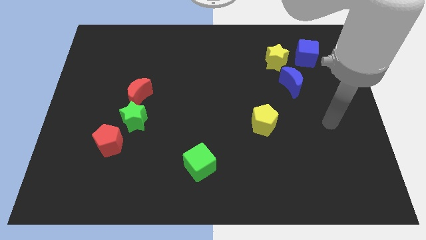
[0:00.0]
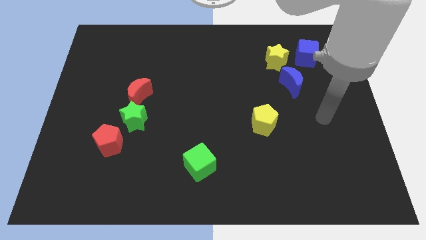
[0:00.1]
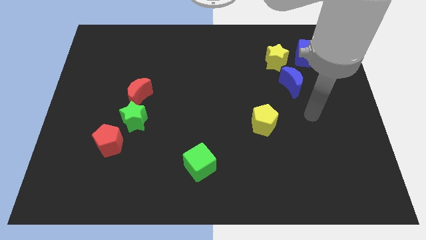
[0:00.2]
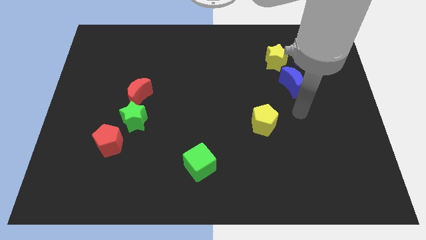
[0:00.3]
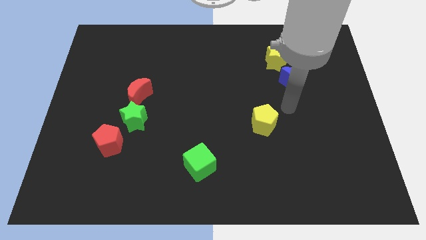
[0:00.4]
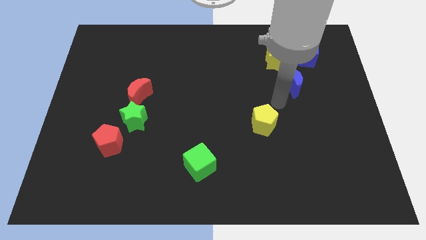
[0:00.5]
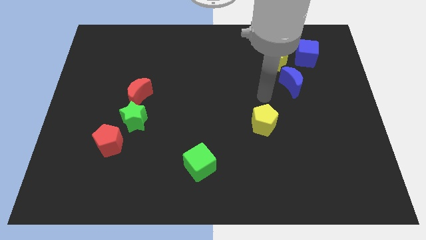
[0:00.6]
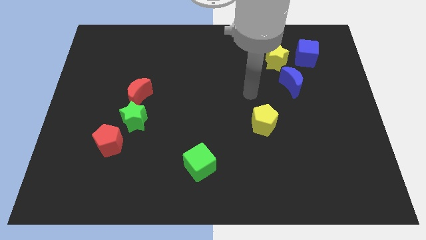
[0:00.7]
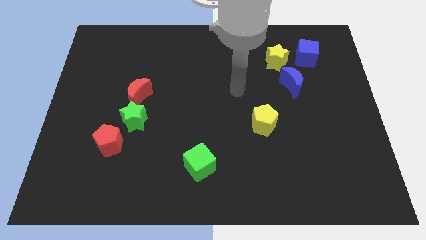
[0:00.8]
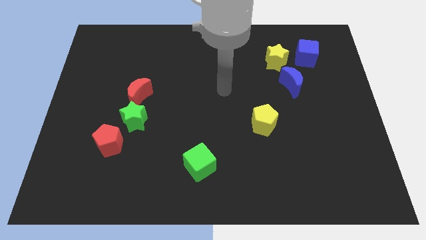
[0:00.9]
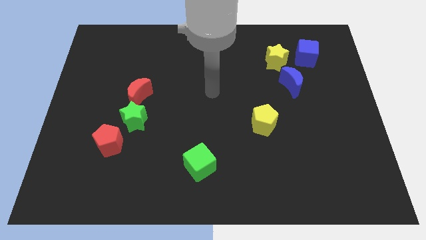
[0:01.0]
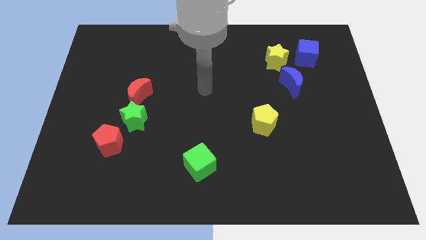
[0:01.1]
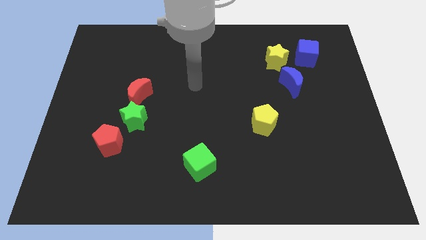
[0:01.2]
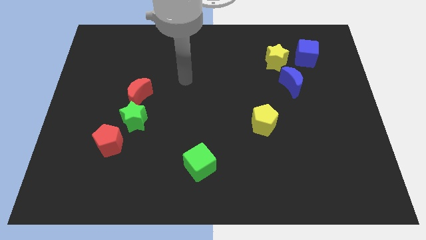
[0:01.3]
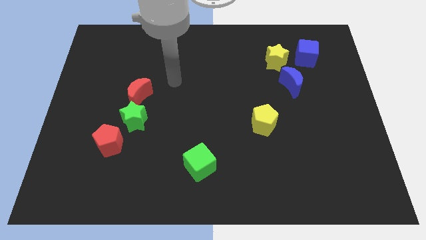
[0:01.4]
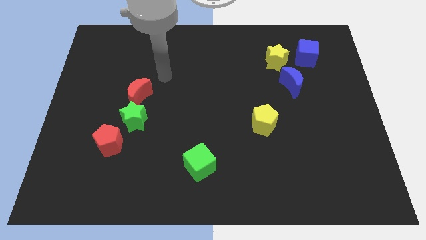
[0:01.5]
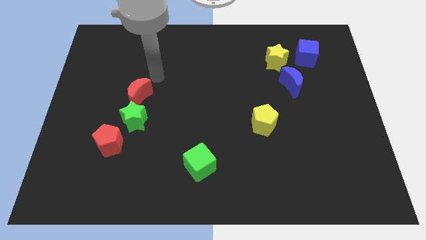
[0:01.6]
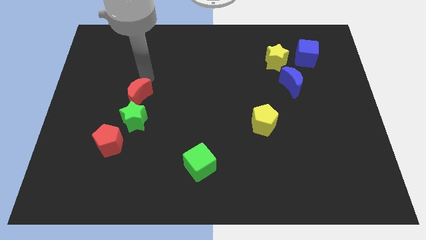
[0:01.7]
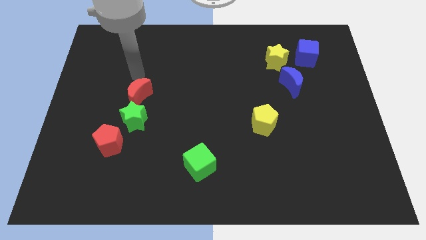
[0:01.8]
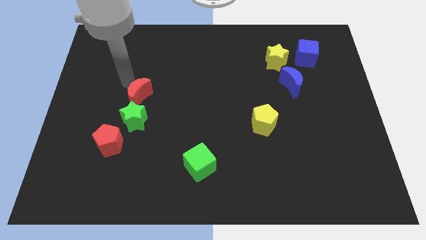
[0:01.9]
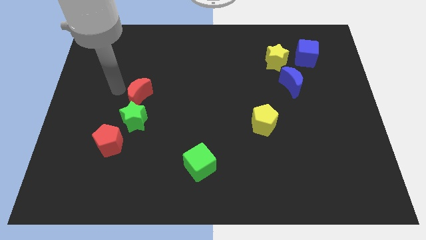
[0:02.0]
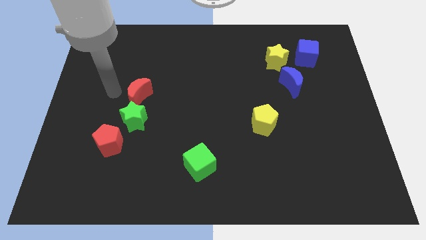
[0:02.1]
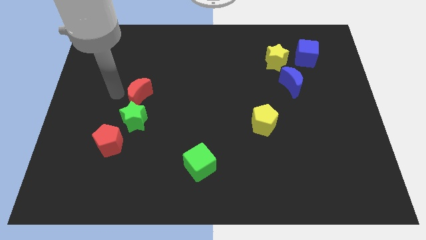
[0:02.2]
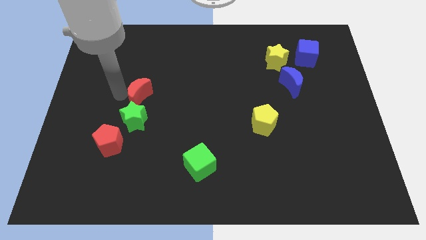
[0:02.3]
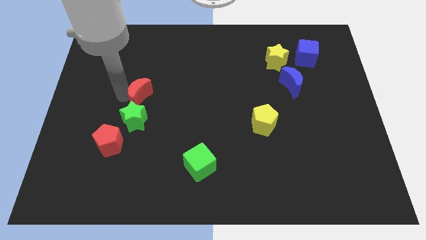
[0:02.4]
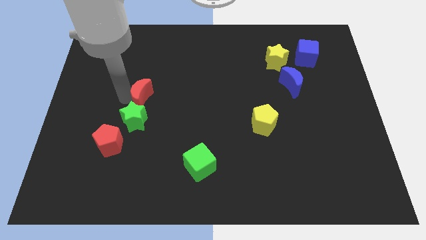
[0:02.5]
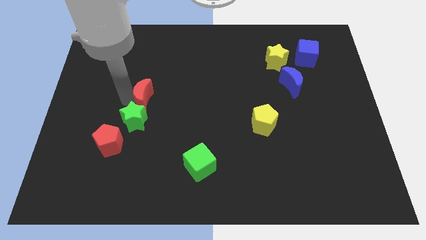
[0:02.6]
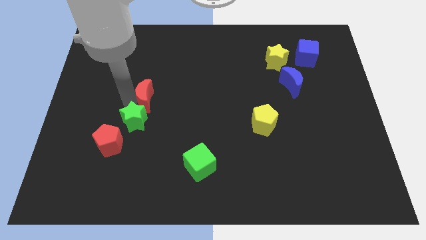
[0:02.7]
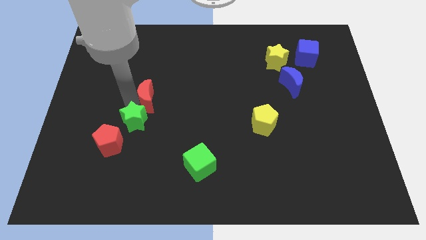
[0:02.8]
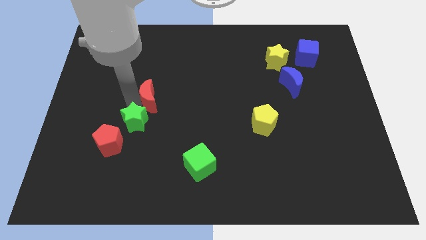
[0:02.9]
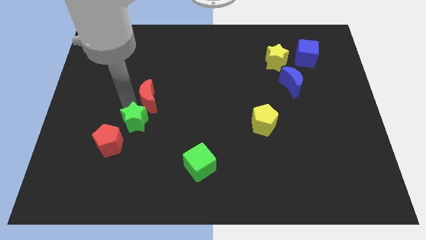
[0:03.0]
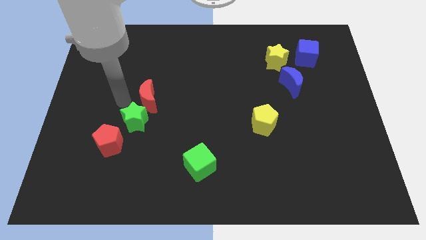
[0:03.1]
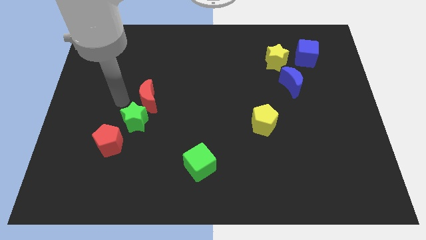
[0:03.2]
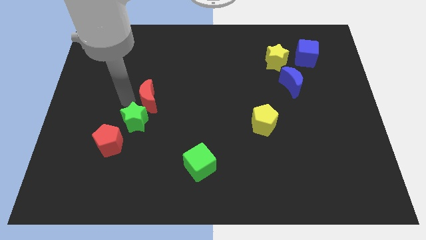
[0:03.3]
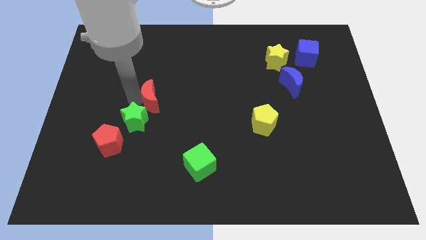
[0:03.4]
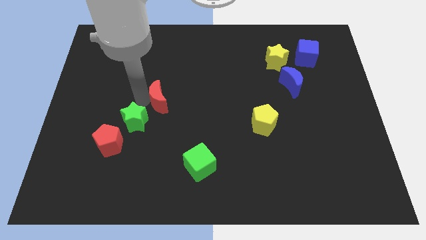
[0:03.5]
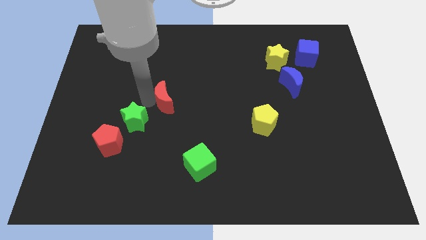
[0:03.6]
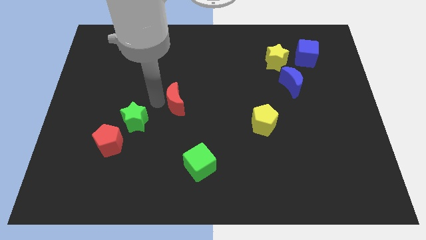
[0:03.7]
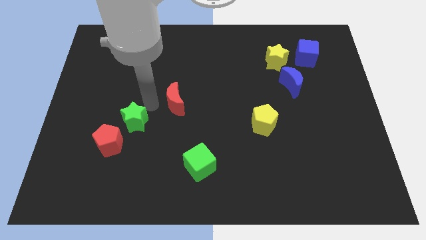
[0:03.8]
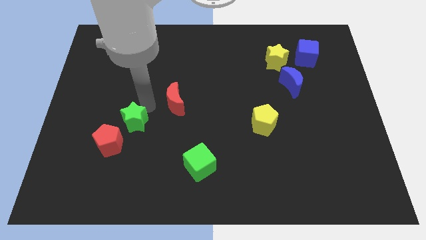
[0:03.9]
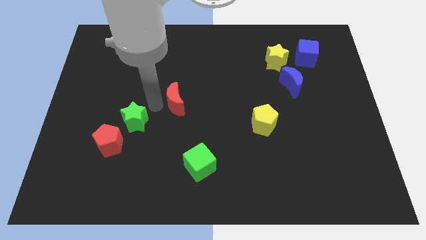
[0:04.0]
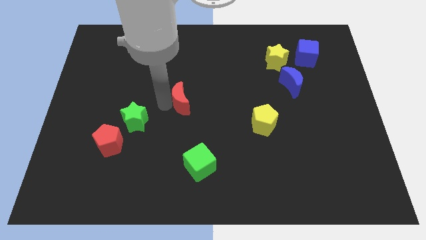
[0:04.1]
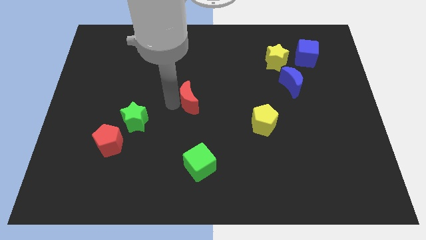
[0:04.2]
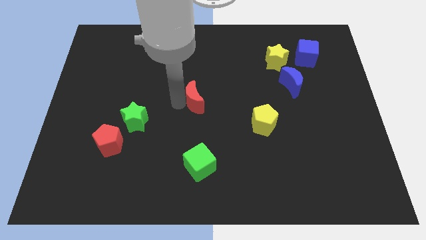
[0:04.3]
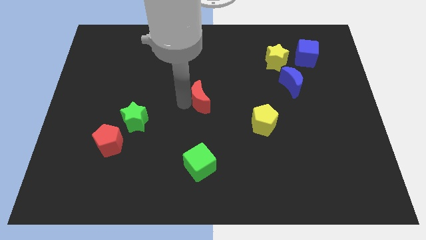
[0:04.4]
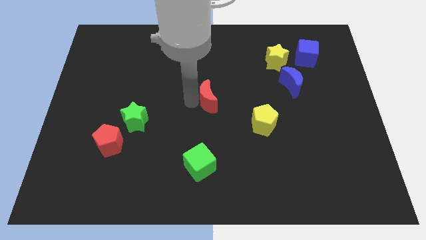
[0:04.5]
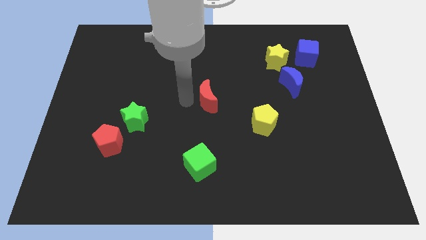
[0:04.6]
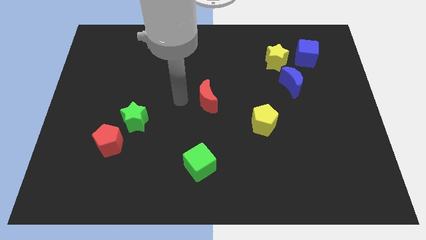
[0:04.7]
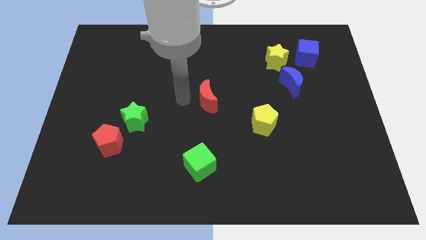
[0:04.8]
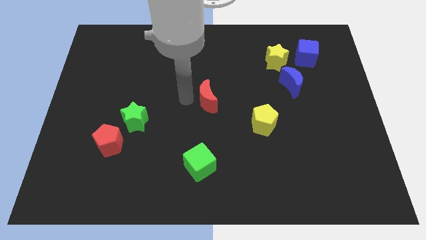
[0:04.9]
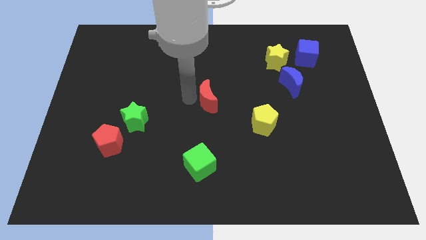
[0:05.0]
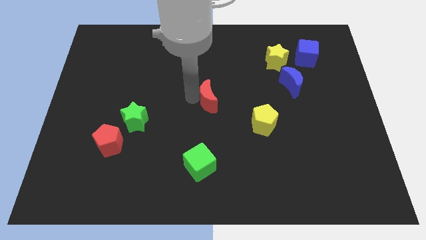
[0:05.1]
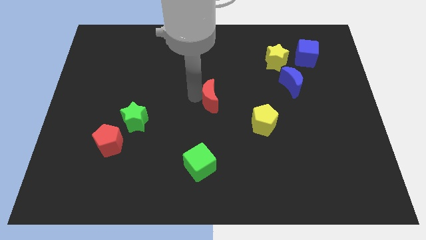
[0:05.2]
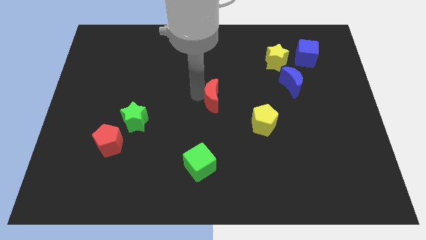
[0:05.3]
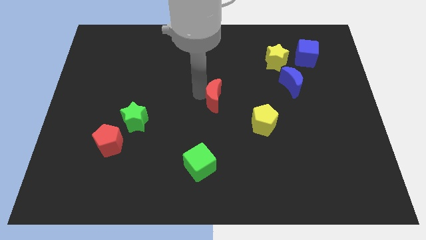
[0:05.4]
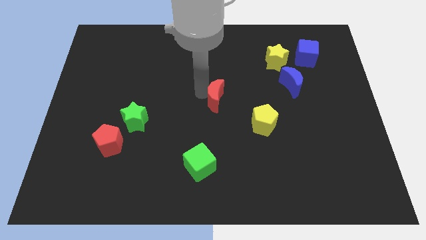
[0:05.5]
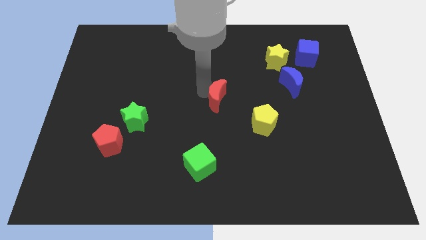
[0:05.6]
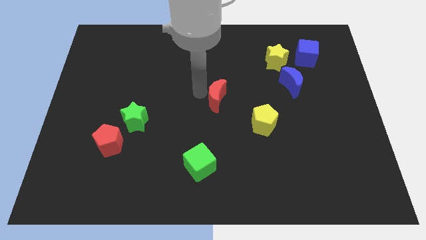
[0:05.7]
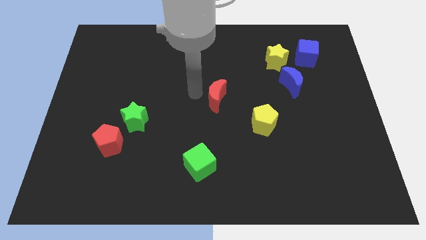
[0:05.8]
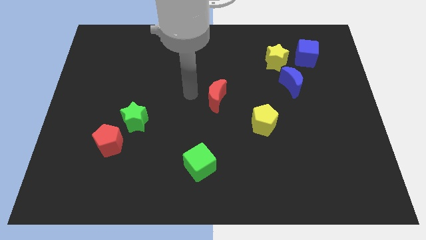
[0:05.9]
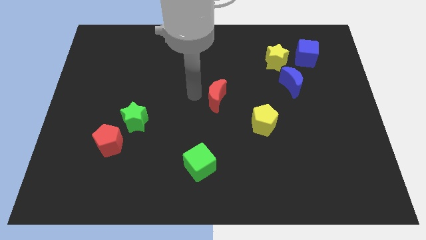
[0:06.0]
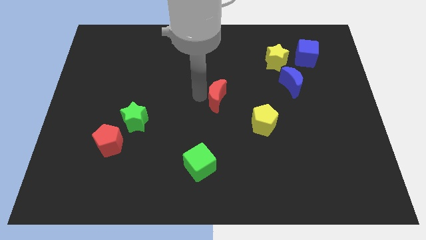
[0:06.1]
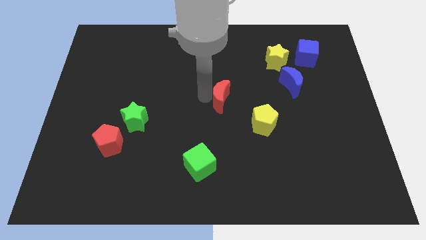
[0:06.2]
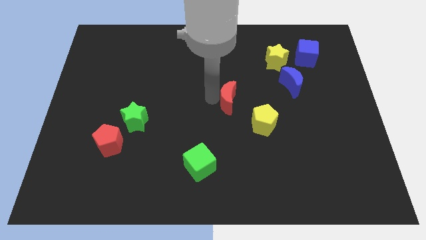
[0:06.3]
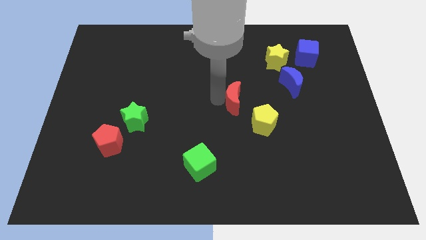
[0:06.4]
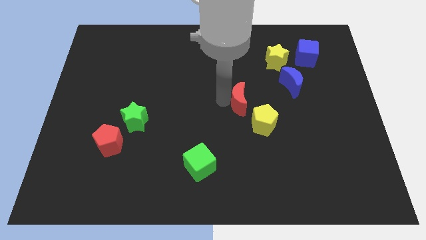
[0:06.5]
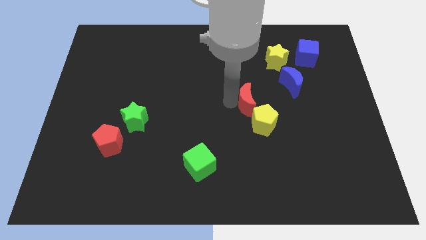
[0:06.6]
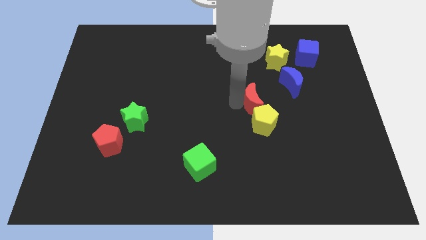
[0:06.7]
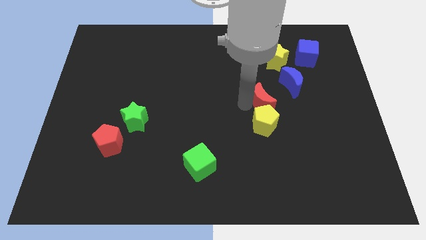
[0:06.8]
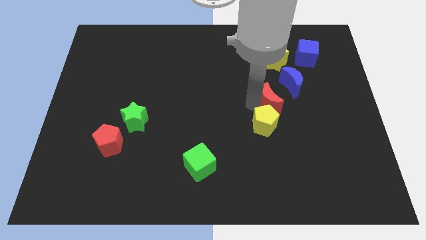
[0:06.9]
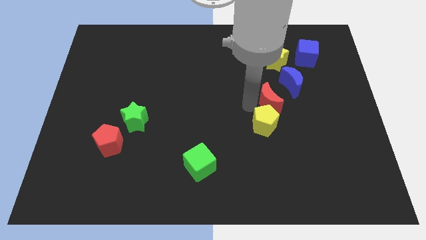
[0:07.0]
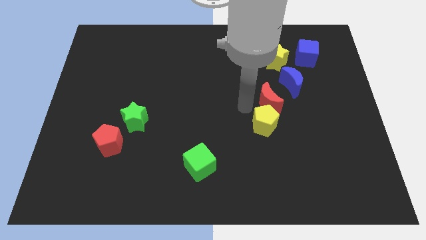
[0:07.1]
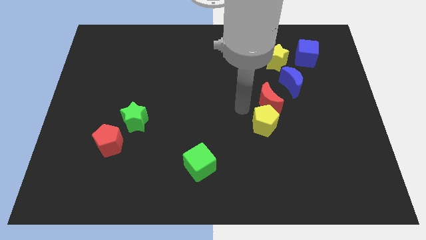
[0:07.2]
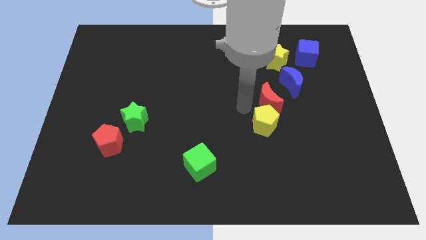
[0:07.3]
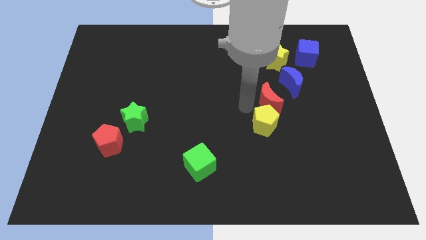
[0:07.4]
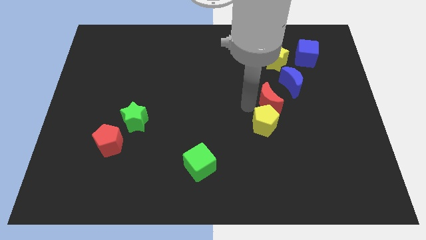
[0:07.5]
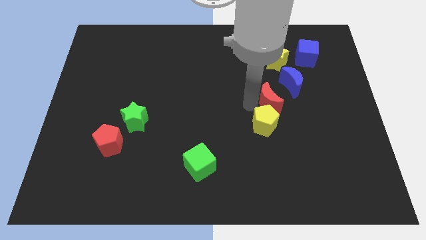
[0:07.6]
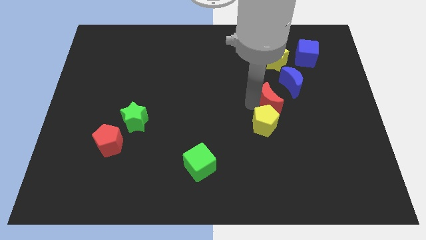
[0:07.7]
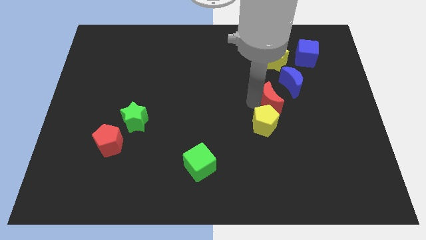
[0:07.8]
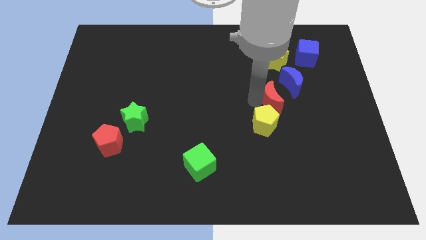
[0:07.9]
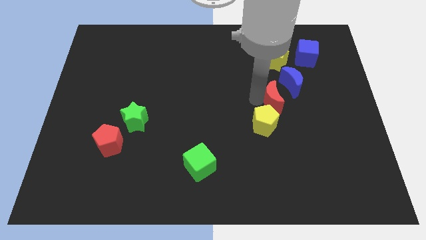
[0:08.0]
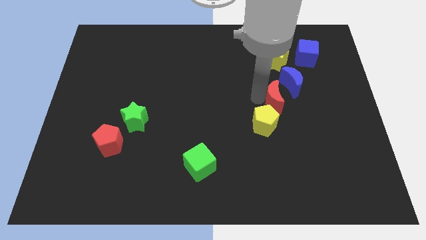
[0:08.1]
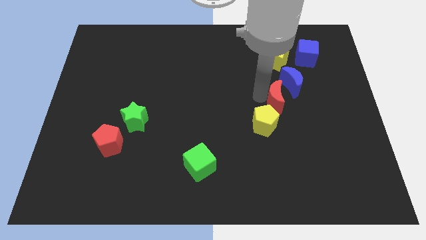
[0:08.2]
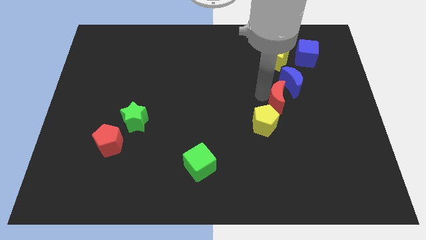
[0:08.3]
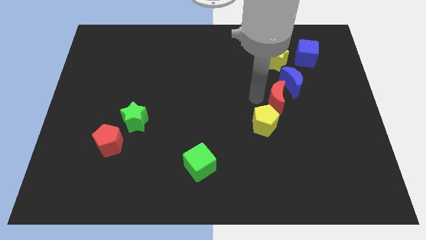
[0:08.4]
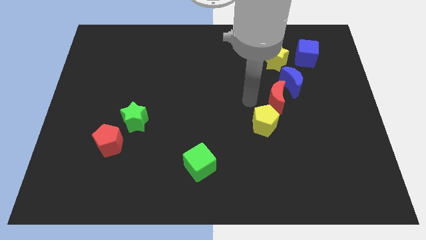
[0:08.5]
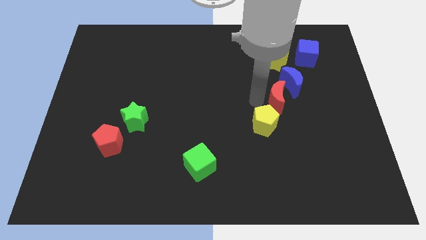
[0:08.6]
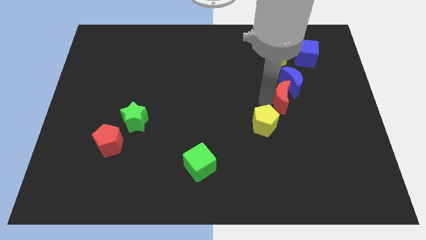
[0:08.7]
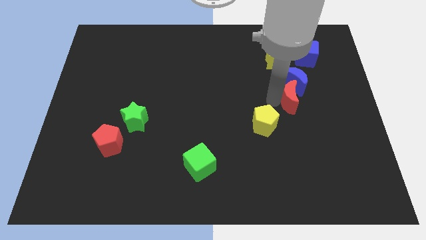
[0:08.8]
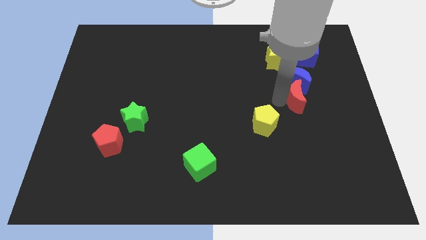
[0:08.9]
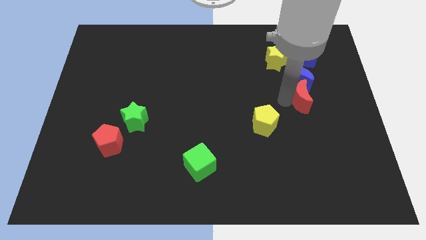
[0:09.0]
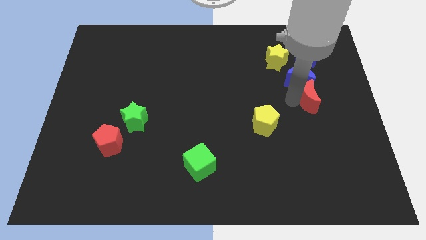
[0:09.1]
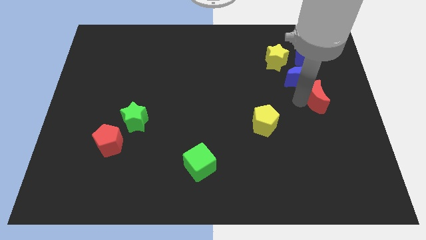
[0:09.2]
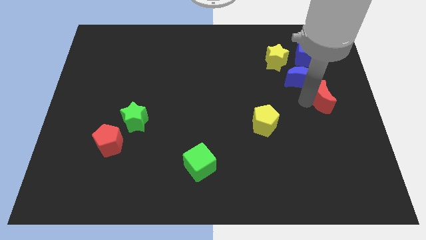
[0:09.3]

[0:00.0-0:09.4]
put the red moon to the center right
